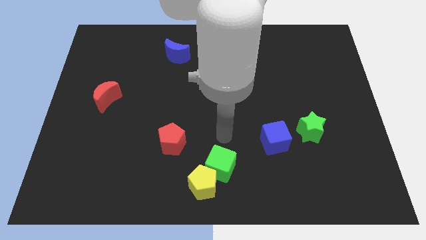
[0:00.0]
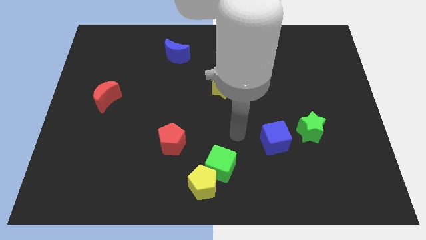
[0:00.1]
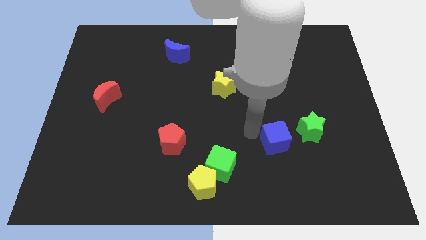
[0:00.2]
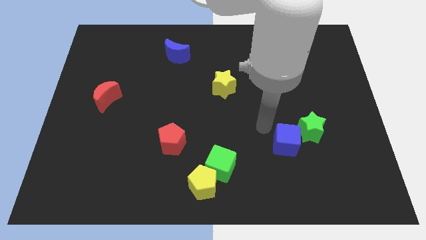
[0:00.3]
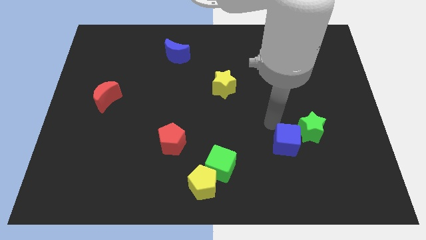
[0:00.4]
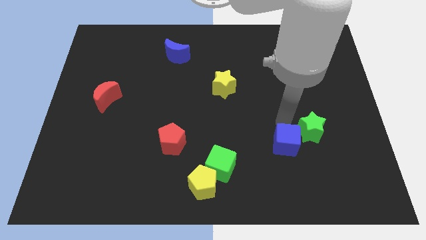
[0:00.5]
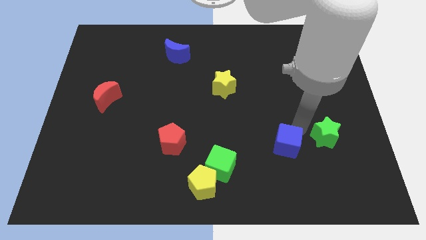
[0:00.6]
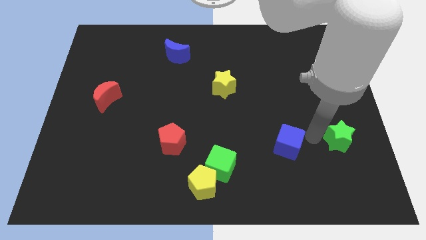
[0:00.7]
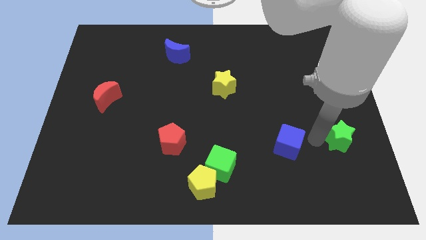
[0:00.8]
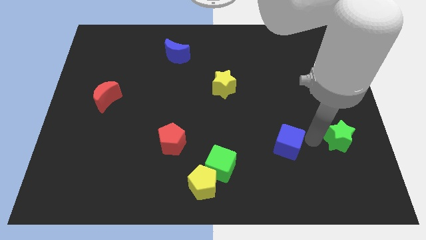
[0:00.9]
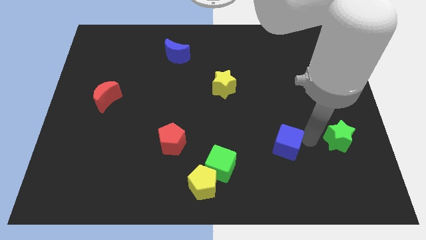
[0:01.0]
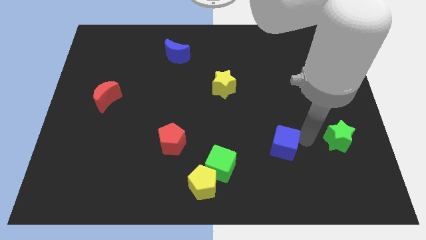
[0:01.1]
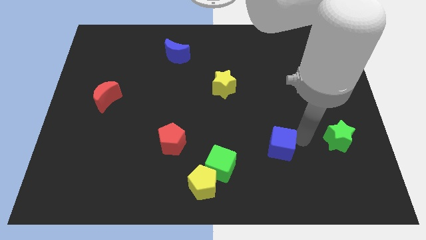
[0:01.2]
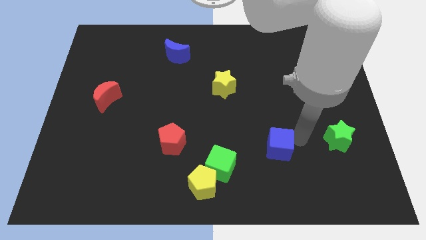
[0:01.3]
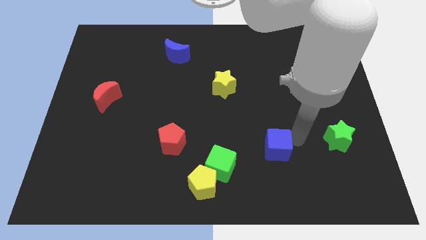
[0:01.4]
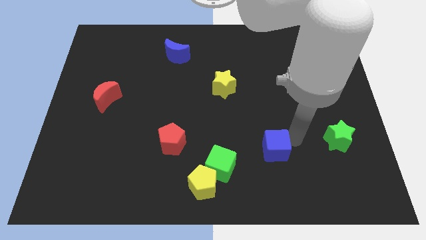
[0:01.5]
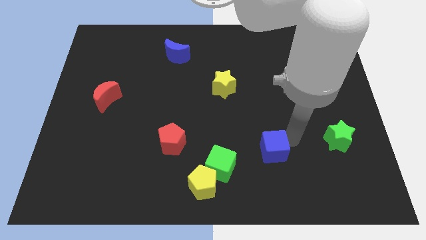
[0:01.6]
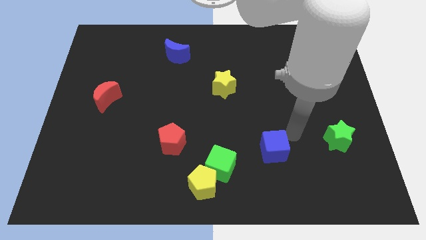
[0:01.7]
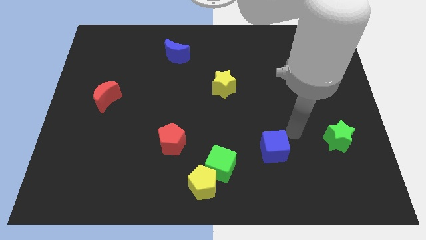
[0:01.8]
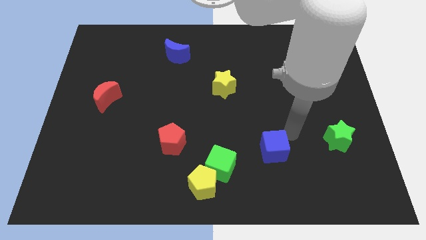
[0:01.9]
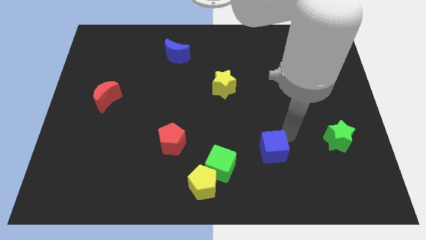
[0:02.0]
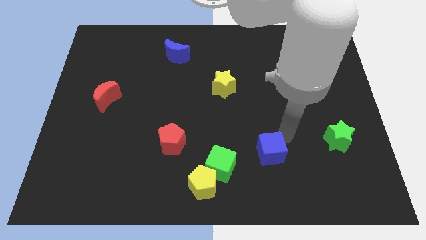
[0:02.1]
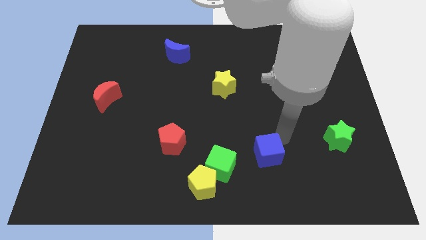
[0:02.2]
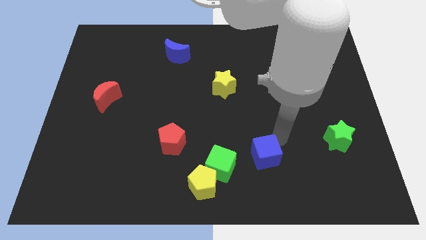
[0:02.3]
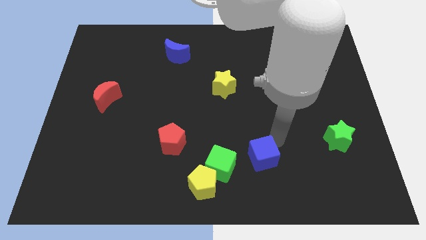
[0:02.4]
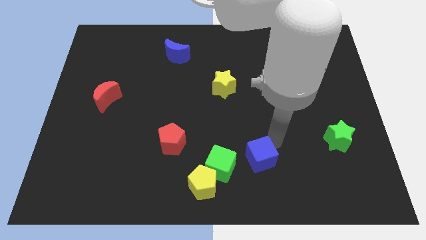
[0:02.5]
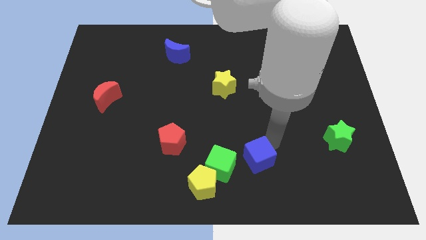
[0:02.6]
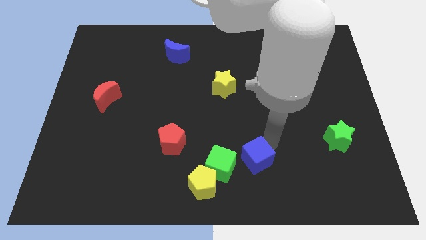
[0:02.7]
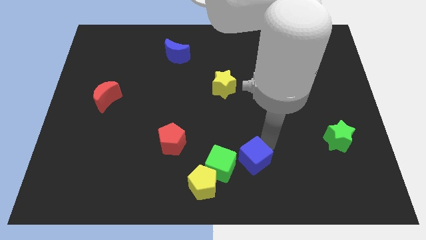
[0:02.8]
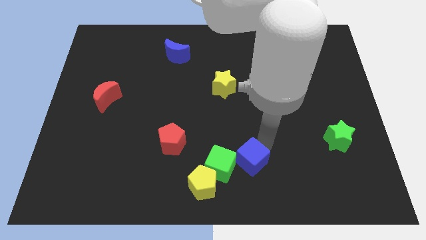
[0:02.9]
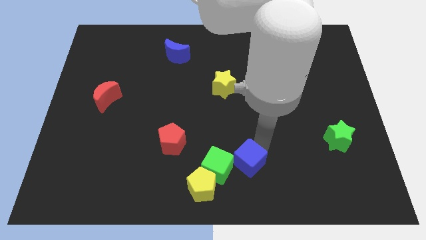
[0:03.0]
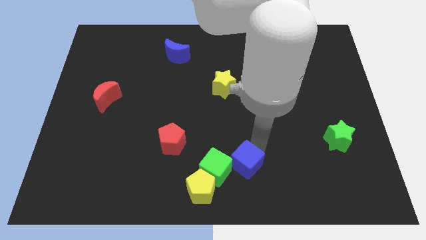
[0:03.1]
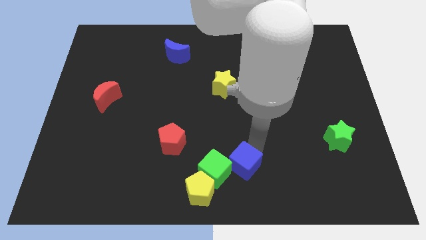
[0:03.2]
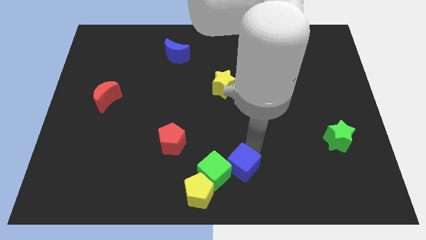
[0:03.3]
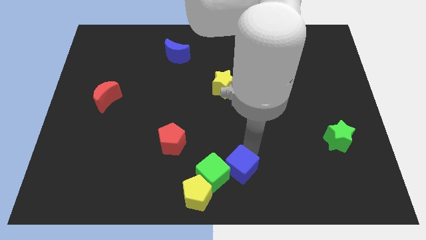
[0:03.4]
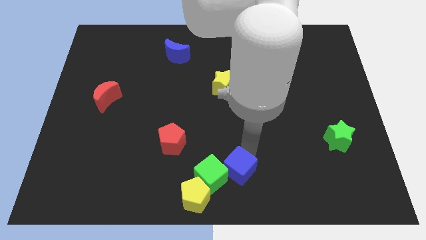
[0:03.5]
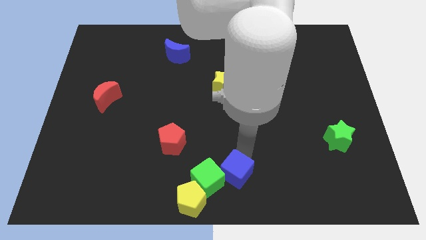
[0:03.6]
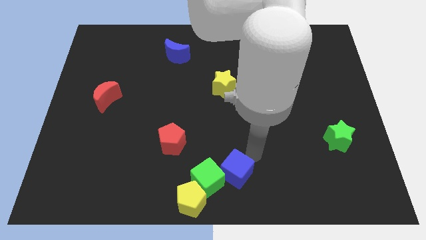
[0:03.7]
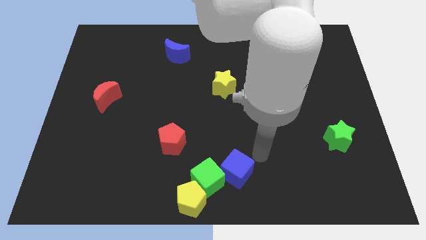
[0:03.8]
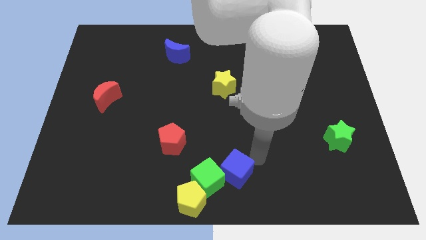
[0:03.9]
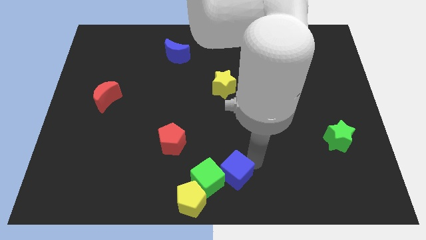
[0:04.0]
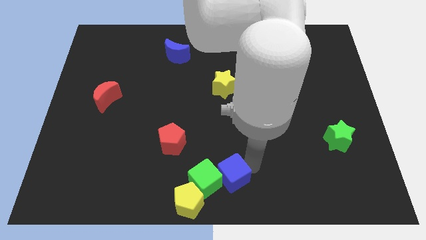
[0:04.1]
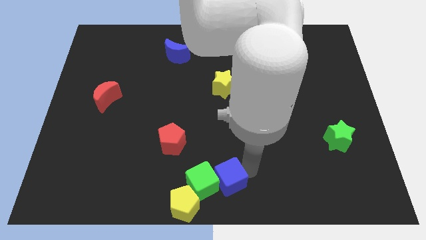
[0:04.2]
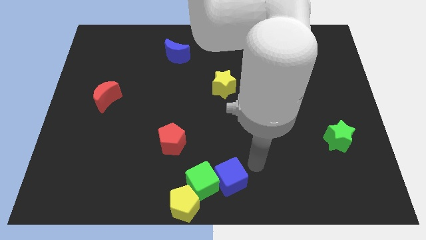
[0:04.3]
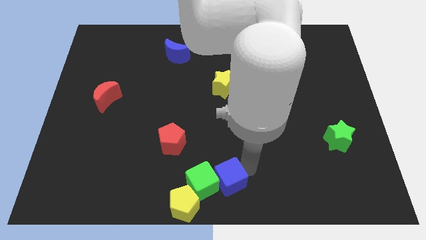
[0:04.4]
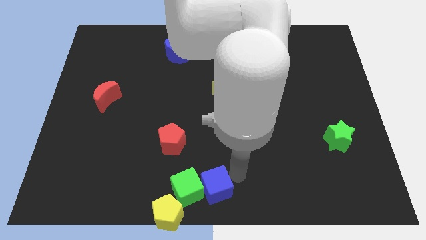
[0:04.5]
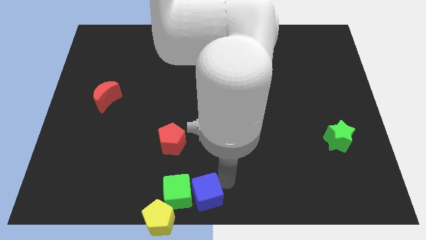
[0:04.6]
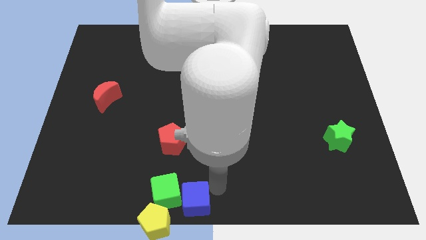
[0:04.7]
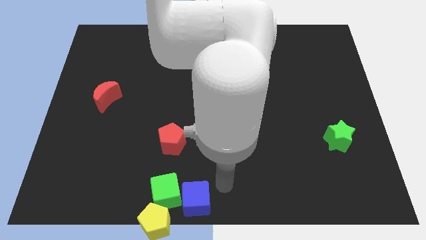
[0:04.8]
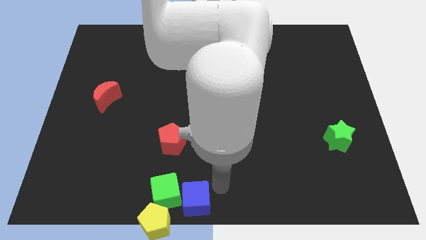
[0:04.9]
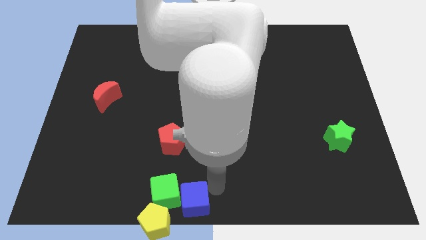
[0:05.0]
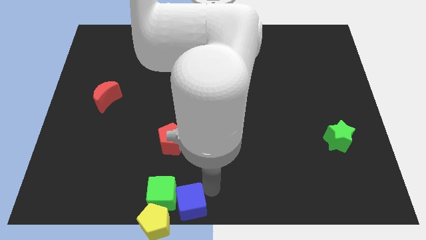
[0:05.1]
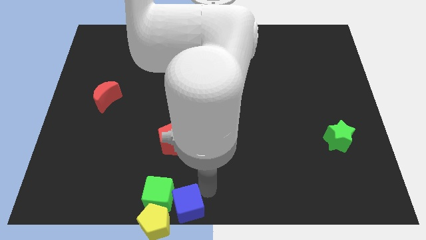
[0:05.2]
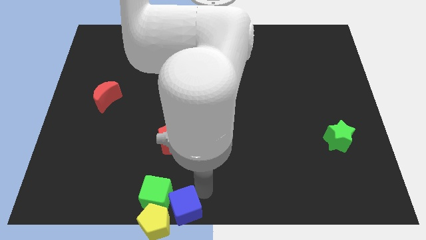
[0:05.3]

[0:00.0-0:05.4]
move the blue cube close to the yellow pentagon

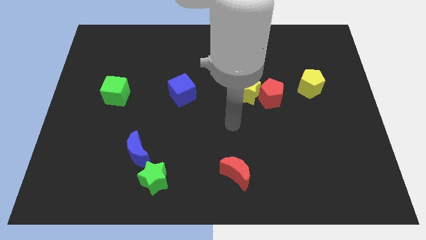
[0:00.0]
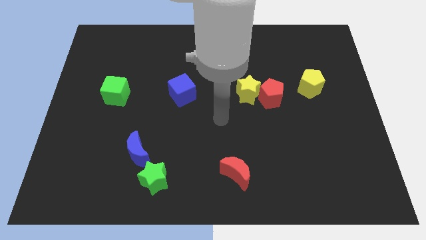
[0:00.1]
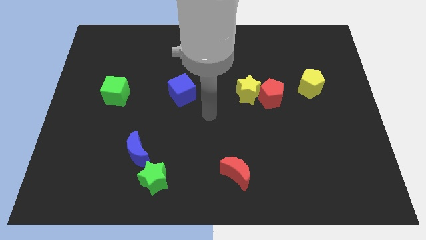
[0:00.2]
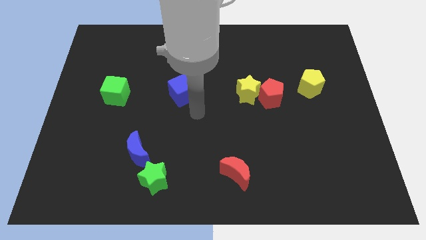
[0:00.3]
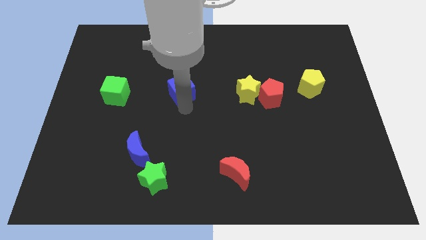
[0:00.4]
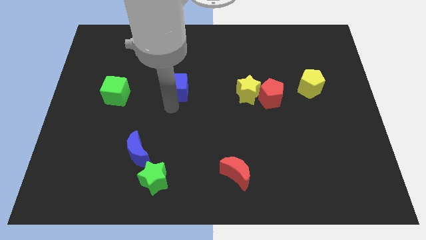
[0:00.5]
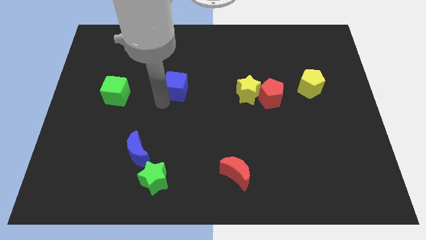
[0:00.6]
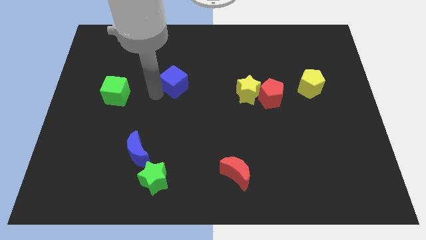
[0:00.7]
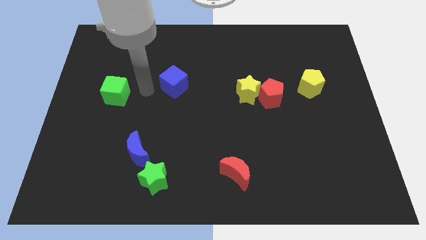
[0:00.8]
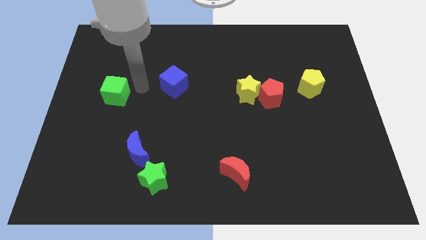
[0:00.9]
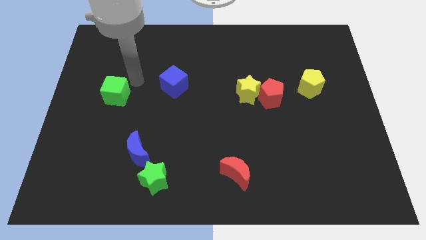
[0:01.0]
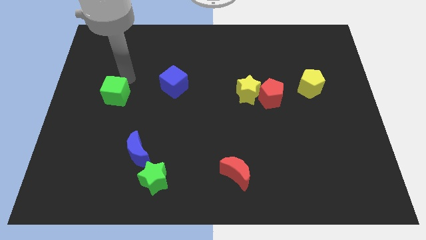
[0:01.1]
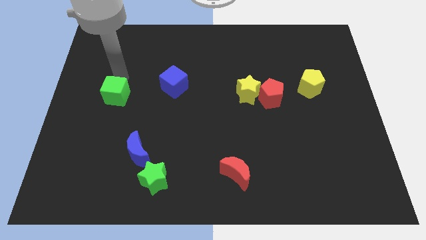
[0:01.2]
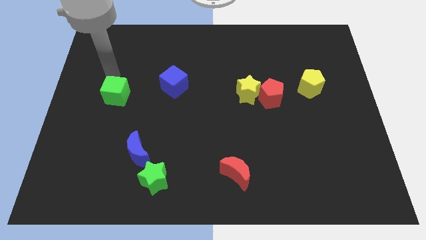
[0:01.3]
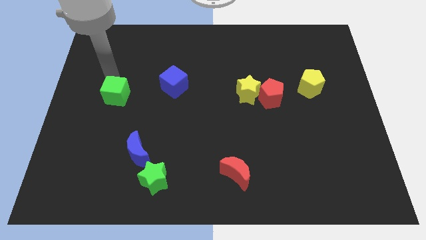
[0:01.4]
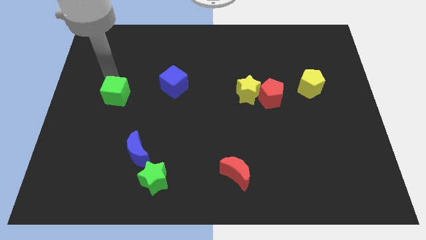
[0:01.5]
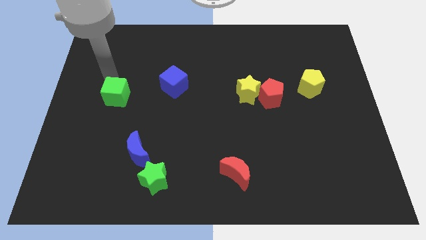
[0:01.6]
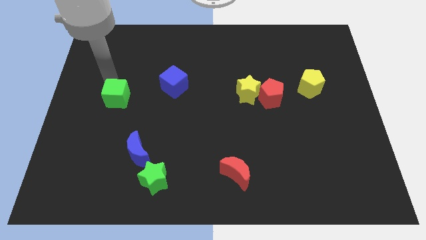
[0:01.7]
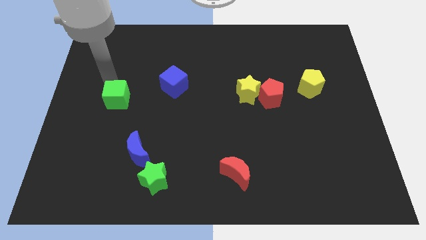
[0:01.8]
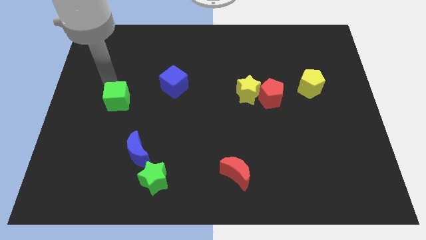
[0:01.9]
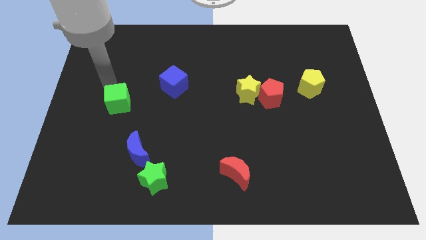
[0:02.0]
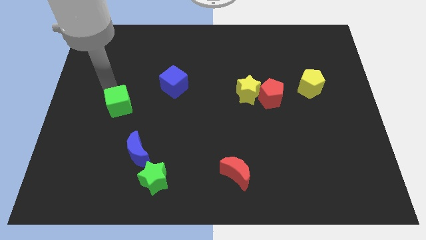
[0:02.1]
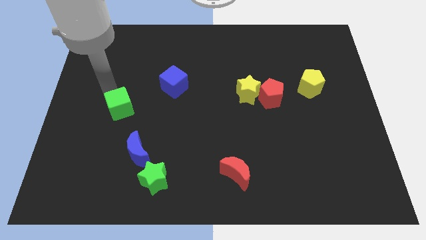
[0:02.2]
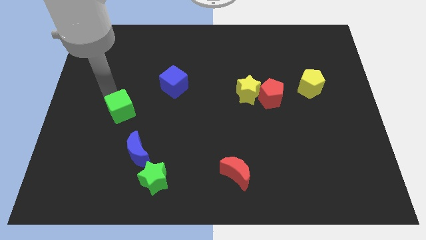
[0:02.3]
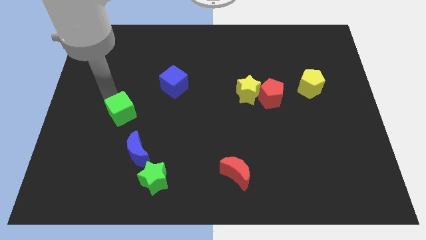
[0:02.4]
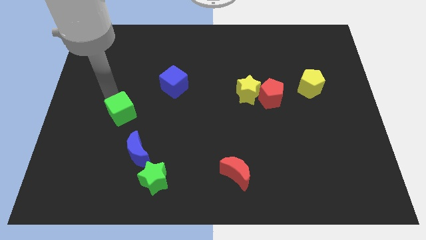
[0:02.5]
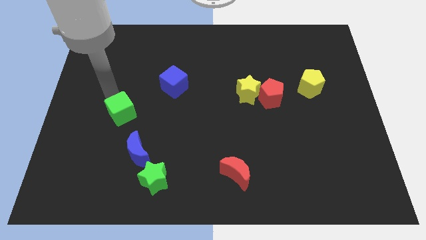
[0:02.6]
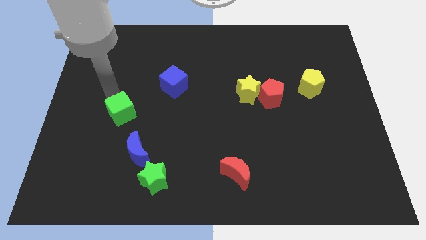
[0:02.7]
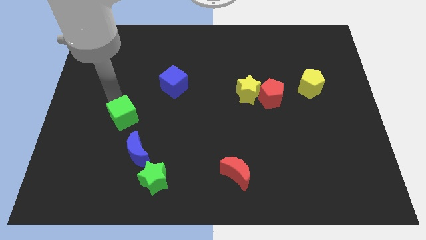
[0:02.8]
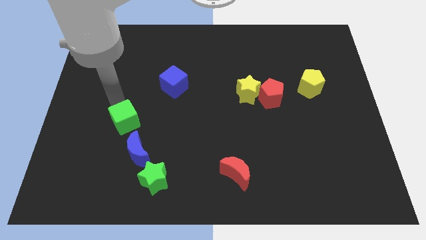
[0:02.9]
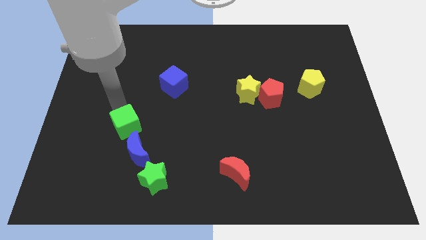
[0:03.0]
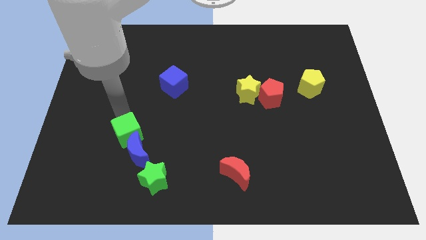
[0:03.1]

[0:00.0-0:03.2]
put the green cube next to the blue moon
